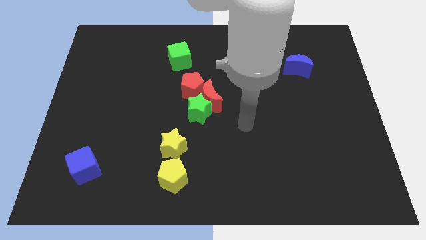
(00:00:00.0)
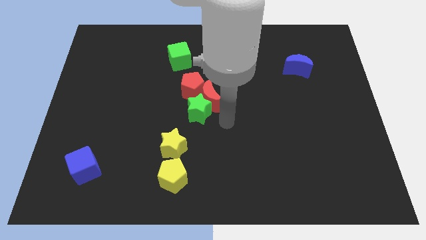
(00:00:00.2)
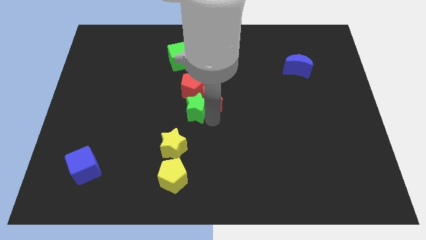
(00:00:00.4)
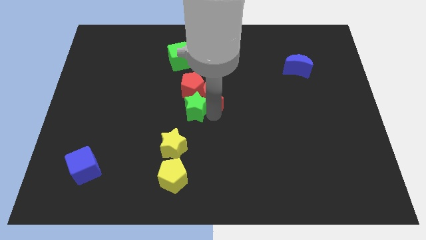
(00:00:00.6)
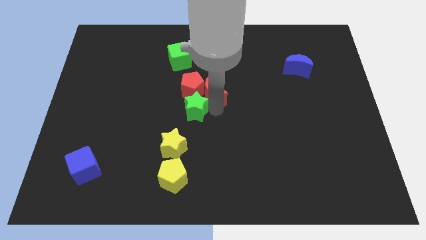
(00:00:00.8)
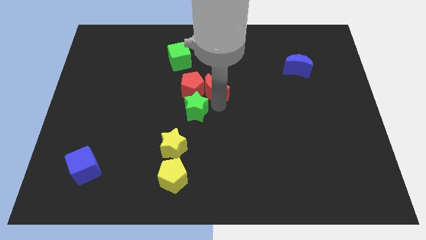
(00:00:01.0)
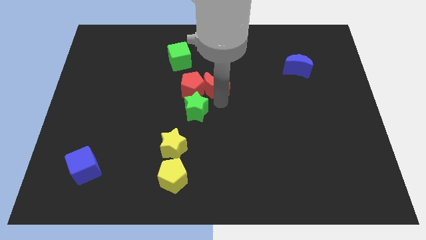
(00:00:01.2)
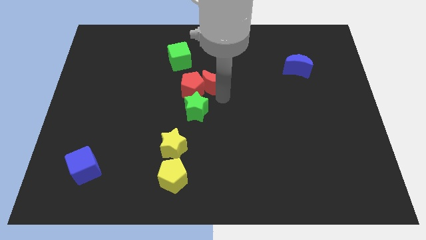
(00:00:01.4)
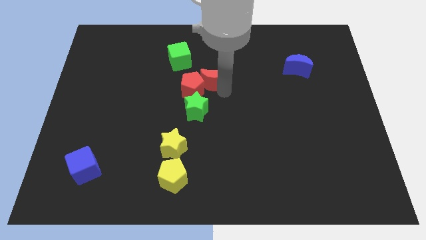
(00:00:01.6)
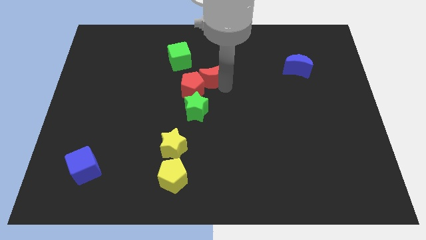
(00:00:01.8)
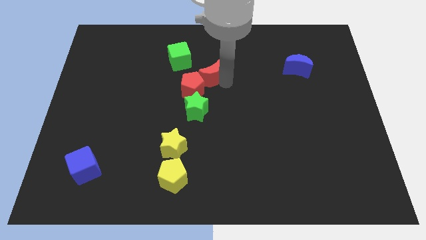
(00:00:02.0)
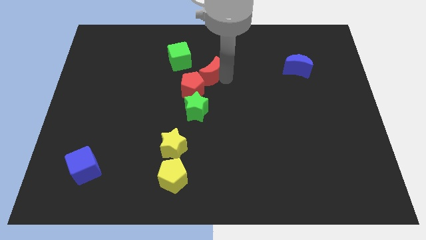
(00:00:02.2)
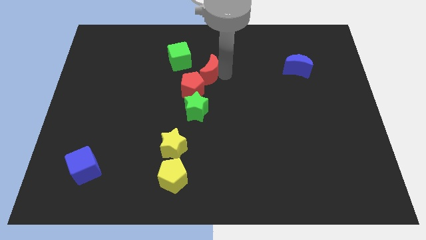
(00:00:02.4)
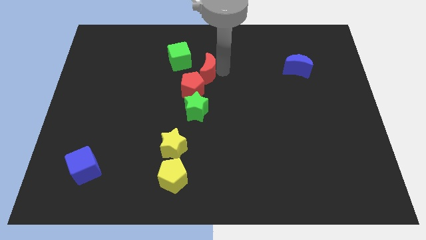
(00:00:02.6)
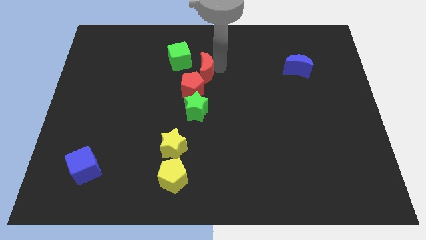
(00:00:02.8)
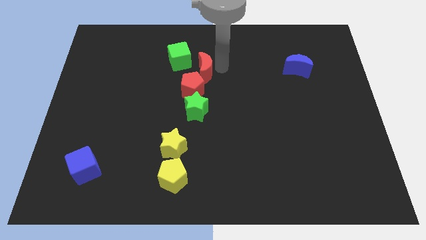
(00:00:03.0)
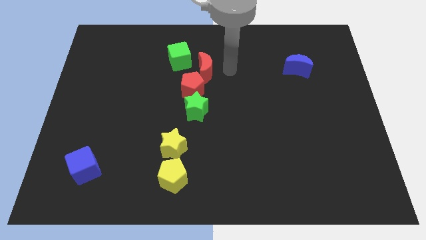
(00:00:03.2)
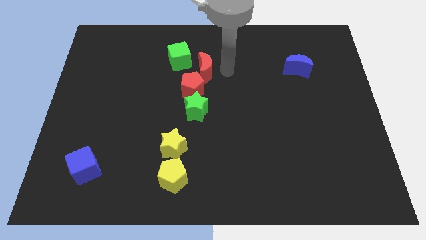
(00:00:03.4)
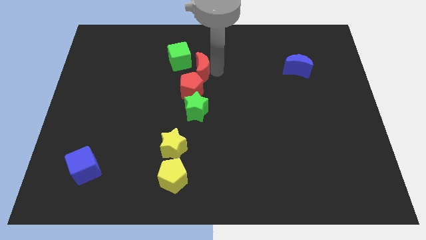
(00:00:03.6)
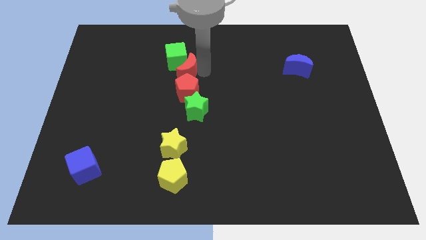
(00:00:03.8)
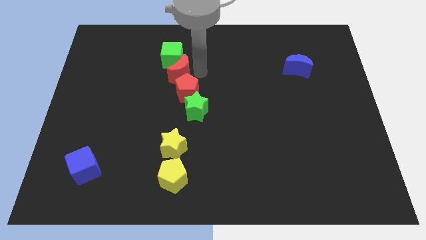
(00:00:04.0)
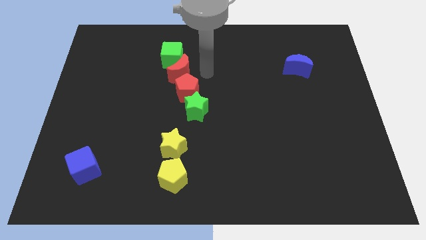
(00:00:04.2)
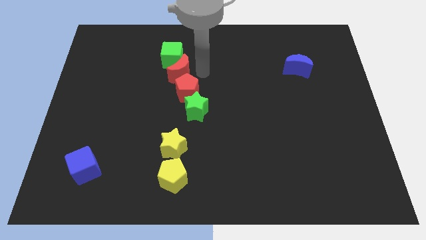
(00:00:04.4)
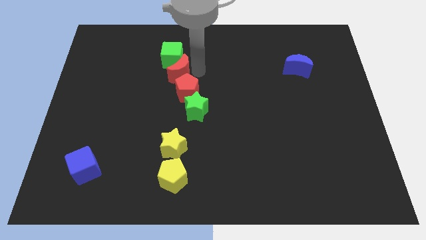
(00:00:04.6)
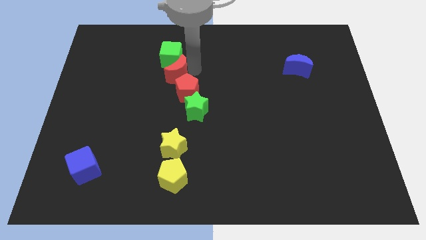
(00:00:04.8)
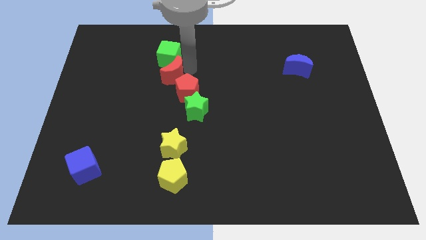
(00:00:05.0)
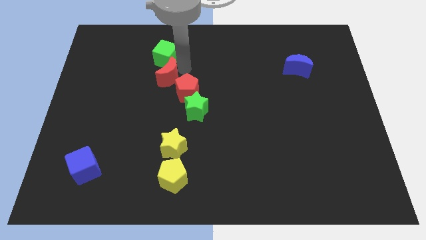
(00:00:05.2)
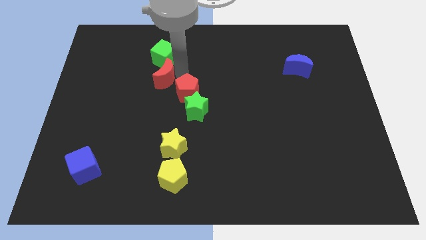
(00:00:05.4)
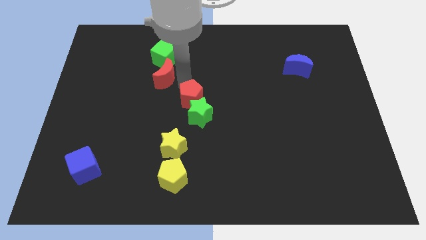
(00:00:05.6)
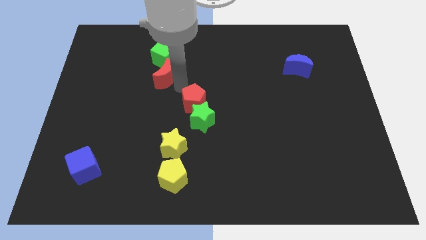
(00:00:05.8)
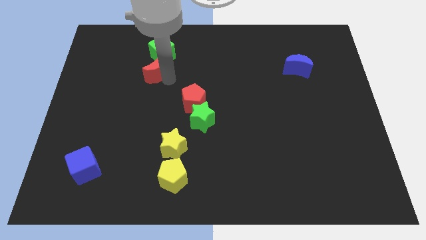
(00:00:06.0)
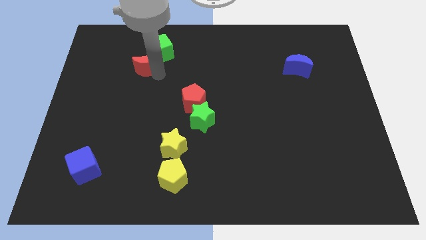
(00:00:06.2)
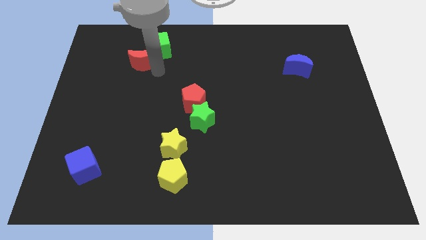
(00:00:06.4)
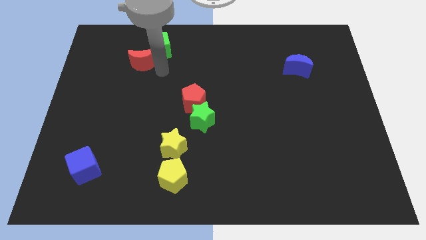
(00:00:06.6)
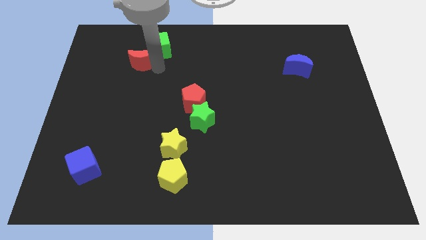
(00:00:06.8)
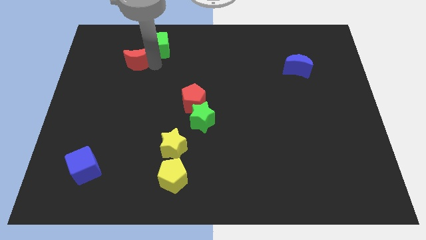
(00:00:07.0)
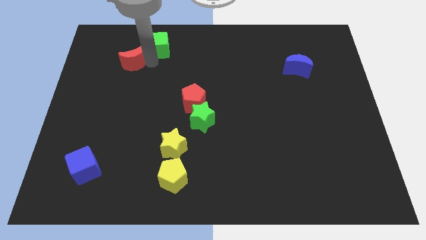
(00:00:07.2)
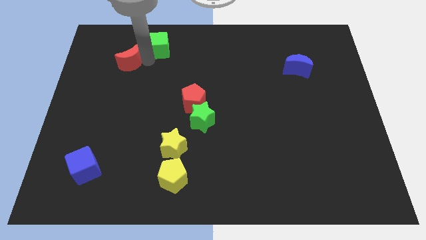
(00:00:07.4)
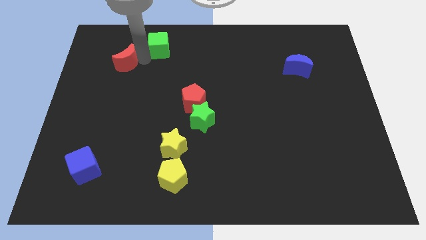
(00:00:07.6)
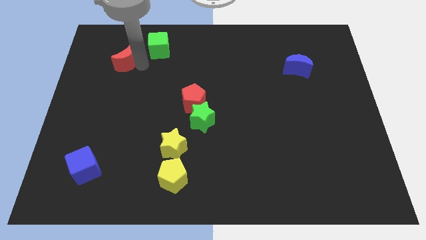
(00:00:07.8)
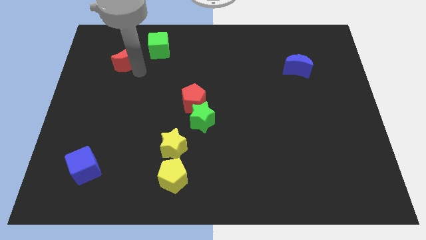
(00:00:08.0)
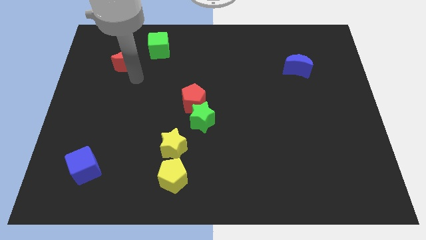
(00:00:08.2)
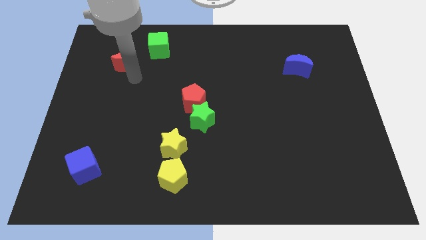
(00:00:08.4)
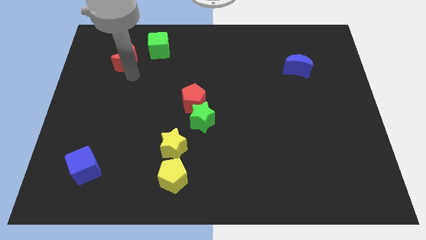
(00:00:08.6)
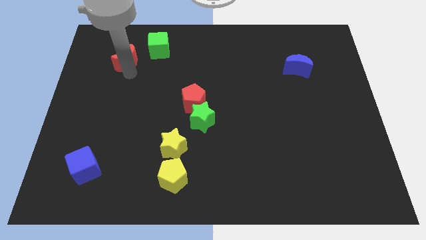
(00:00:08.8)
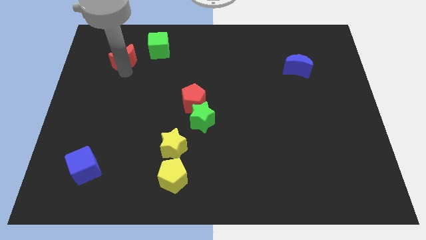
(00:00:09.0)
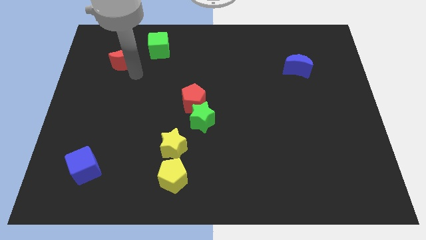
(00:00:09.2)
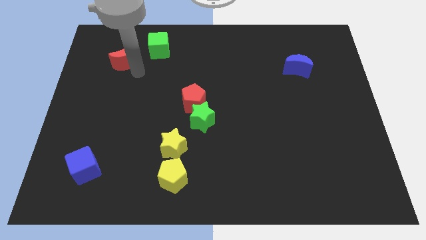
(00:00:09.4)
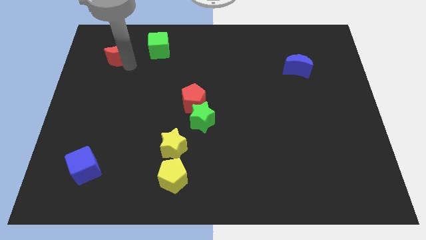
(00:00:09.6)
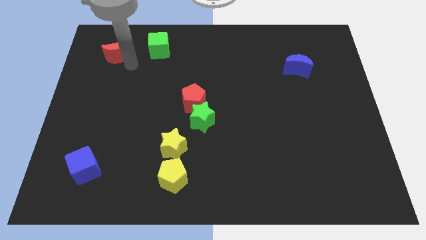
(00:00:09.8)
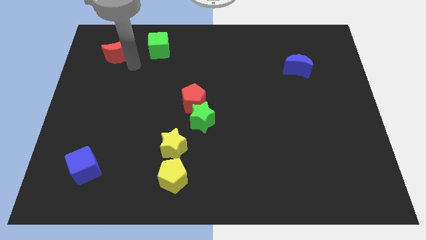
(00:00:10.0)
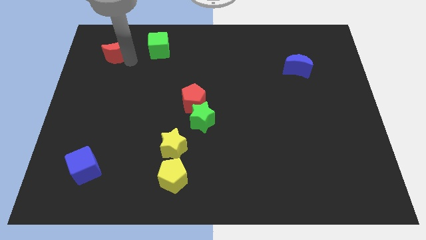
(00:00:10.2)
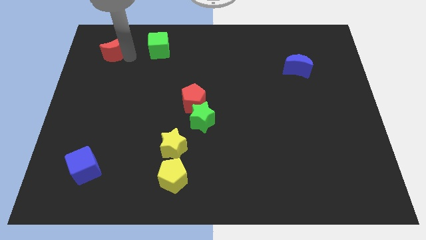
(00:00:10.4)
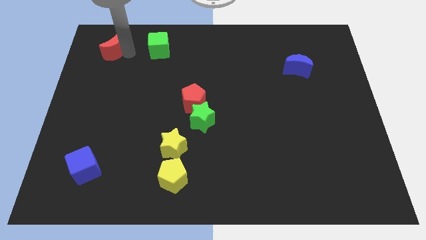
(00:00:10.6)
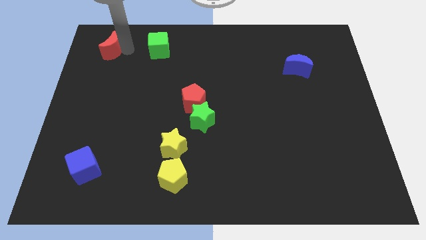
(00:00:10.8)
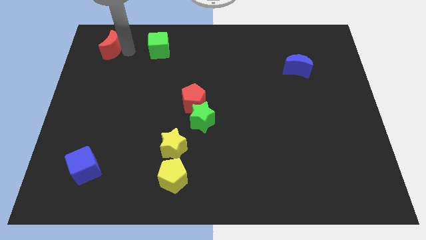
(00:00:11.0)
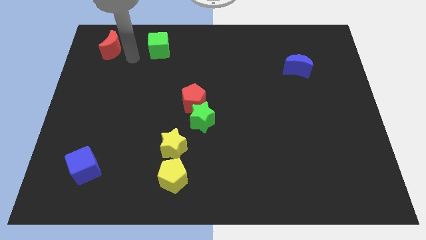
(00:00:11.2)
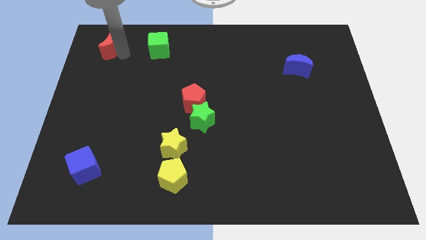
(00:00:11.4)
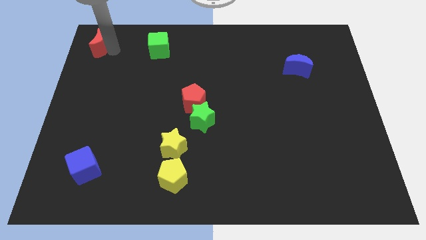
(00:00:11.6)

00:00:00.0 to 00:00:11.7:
slide the red moon to the top left corner
